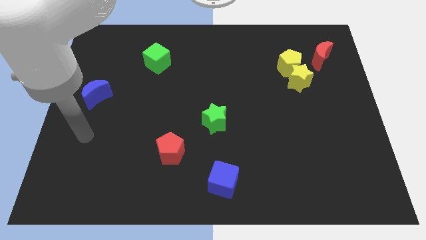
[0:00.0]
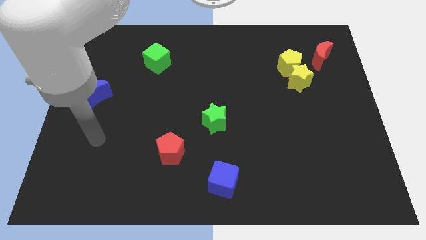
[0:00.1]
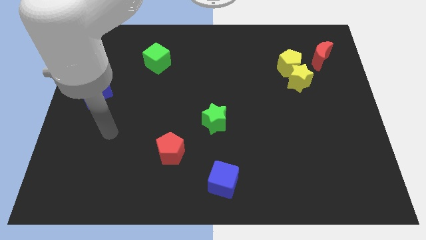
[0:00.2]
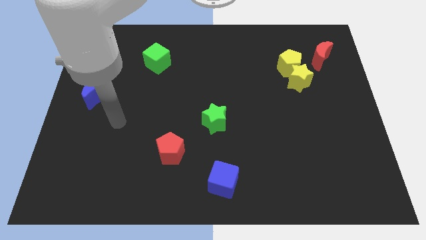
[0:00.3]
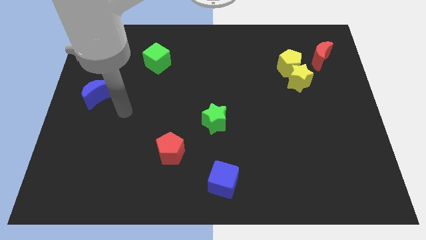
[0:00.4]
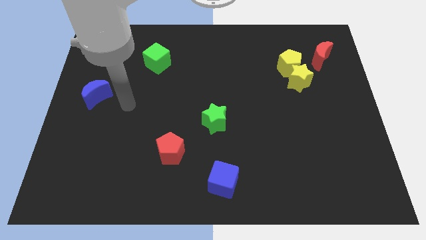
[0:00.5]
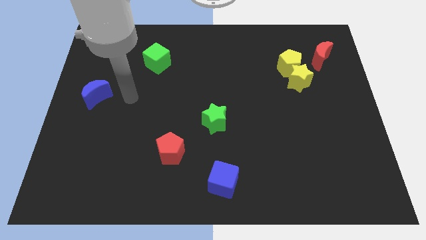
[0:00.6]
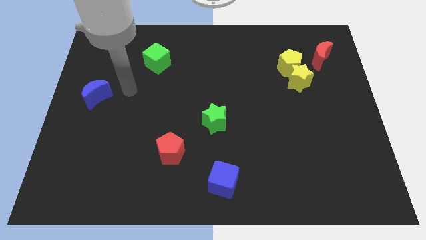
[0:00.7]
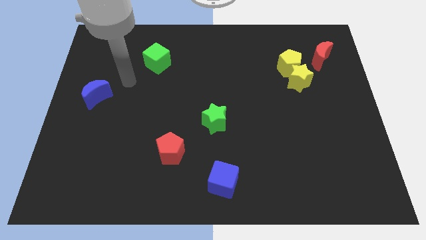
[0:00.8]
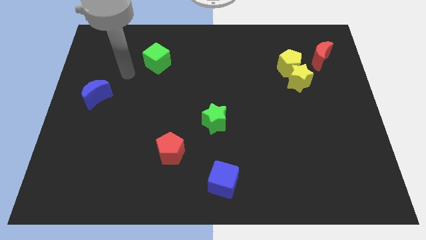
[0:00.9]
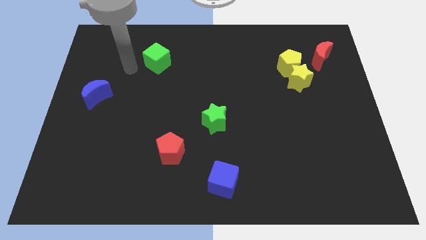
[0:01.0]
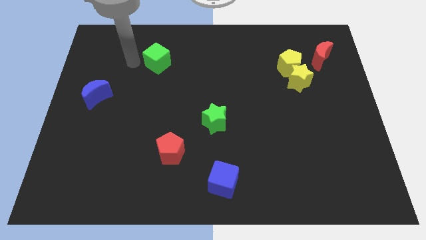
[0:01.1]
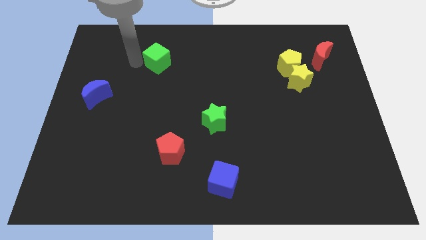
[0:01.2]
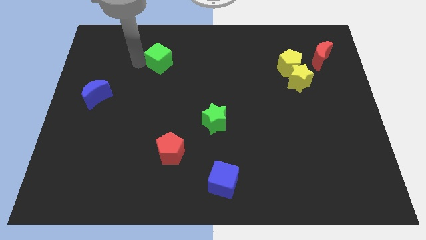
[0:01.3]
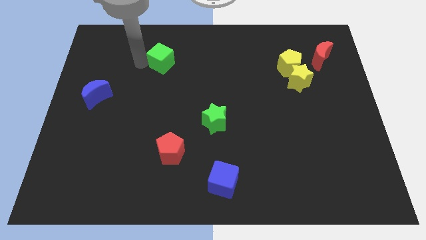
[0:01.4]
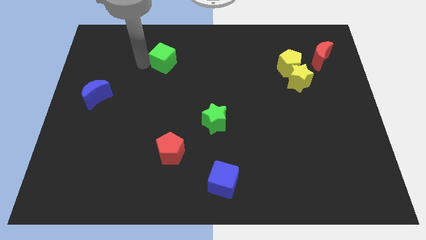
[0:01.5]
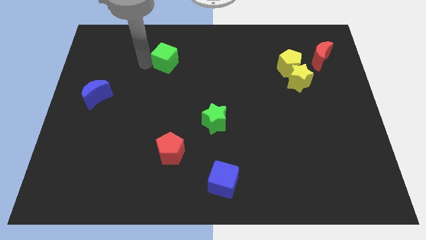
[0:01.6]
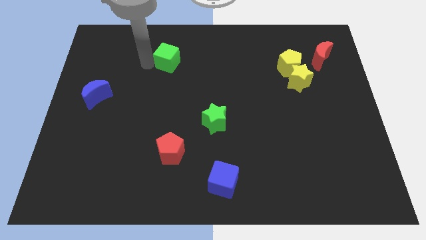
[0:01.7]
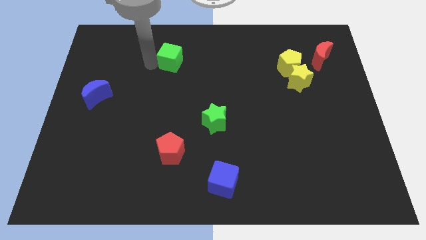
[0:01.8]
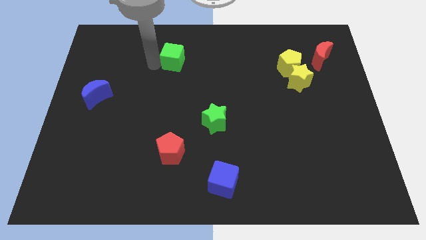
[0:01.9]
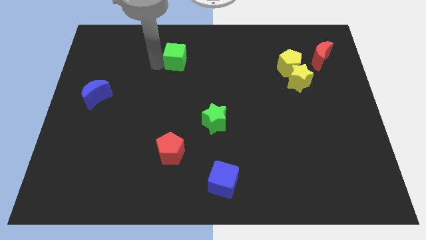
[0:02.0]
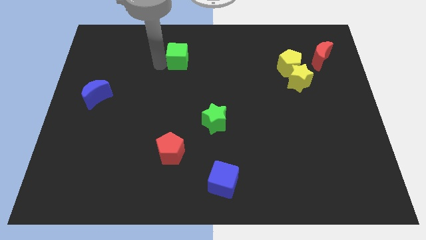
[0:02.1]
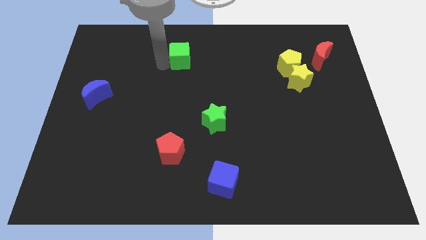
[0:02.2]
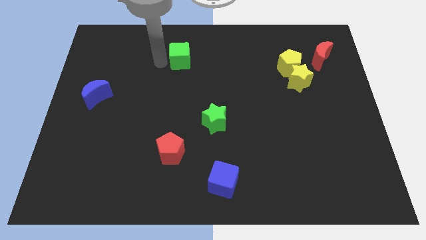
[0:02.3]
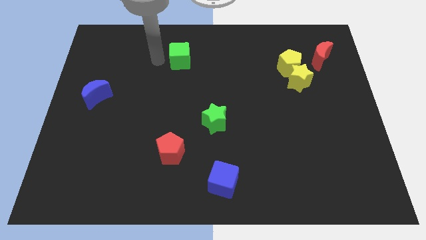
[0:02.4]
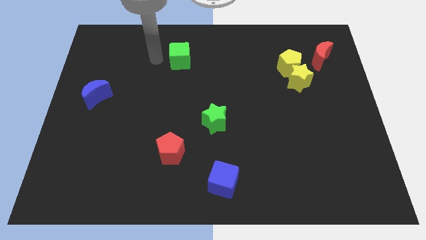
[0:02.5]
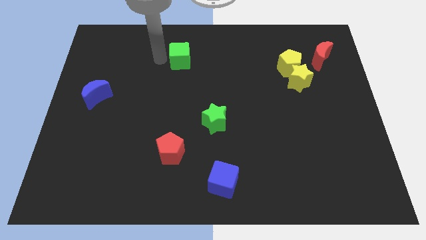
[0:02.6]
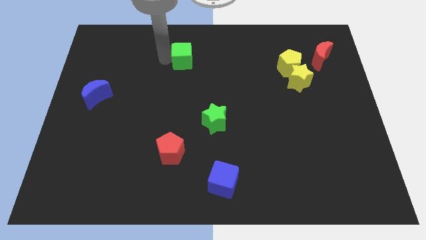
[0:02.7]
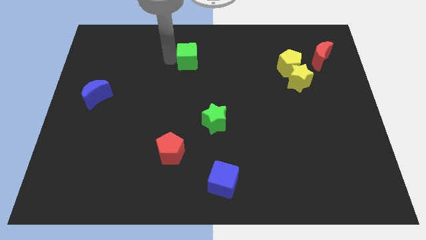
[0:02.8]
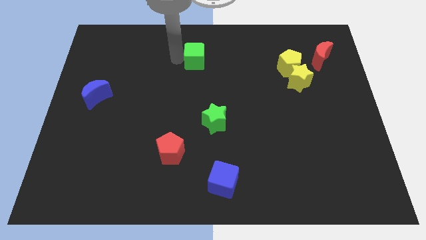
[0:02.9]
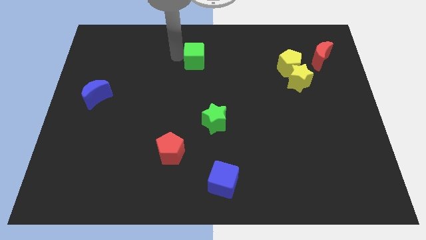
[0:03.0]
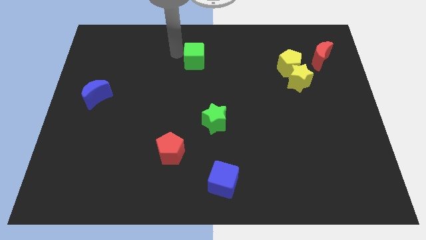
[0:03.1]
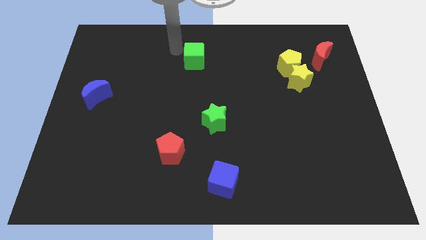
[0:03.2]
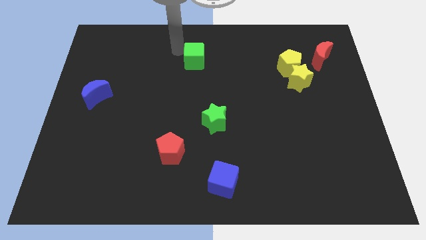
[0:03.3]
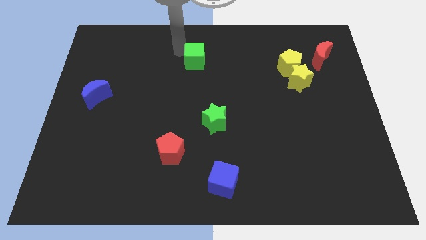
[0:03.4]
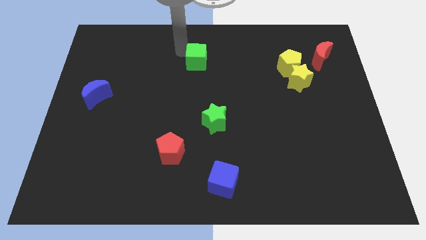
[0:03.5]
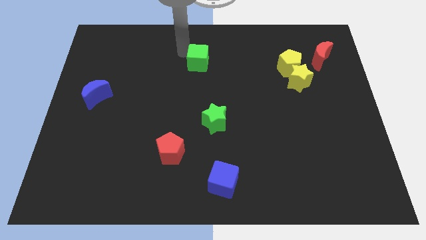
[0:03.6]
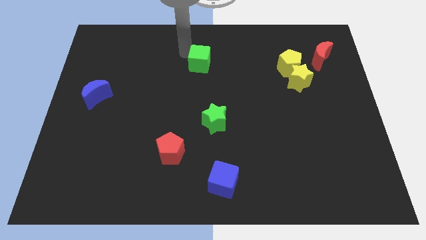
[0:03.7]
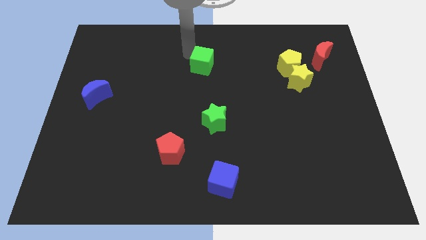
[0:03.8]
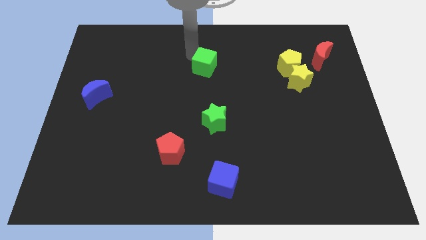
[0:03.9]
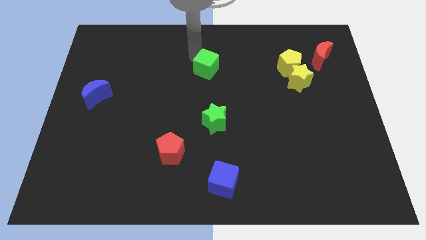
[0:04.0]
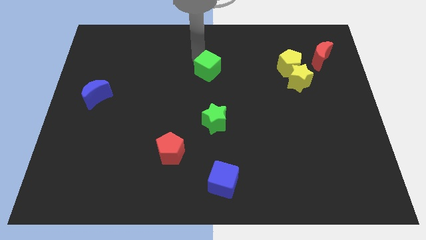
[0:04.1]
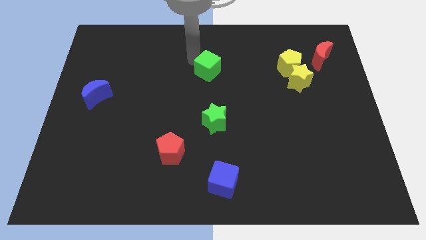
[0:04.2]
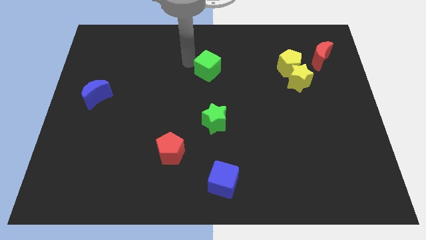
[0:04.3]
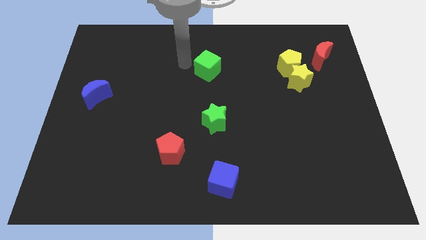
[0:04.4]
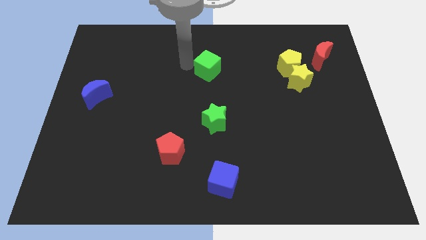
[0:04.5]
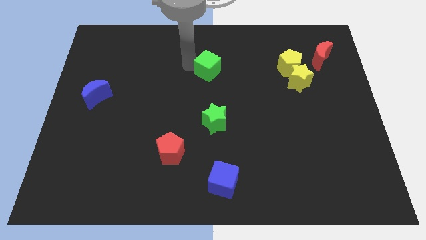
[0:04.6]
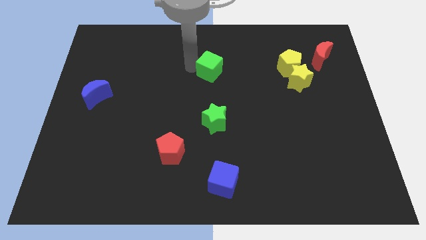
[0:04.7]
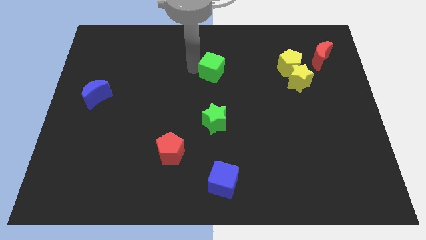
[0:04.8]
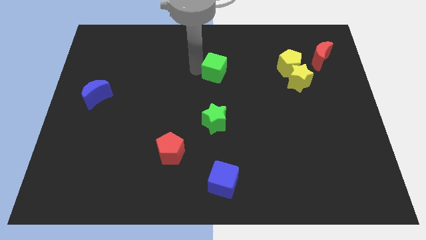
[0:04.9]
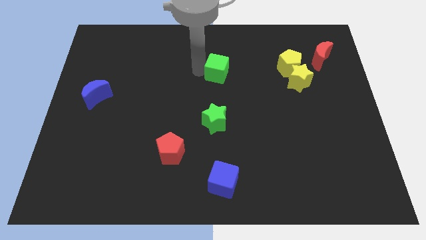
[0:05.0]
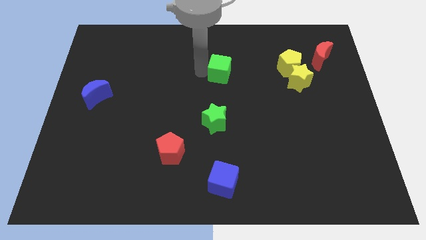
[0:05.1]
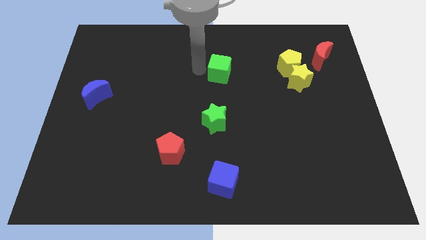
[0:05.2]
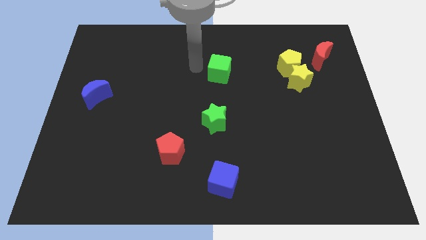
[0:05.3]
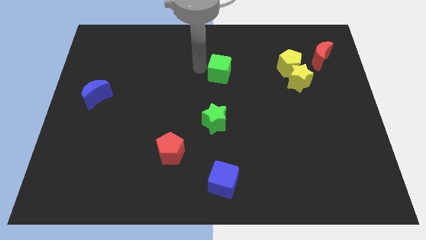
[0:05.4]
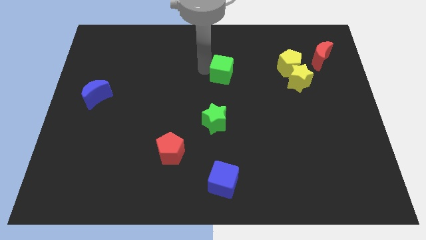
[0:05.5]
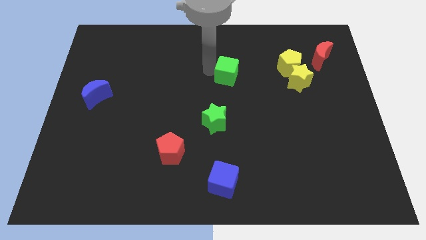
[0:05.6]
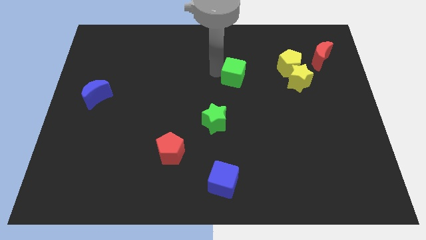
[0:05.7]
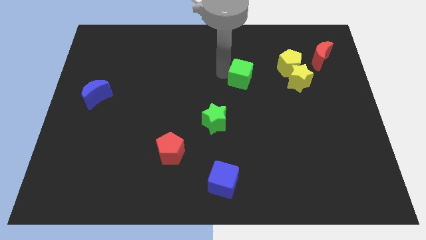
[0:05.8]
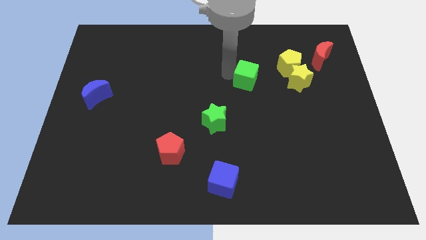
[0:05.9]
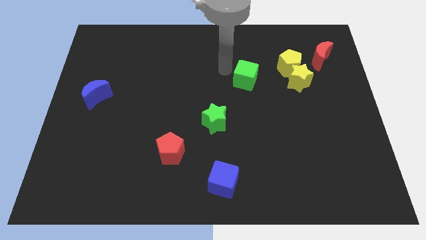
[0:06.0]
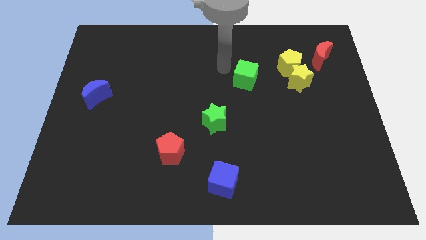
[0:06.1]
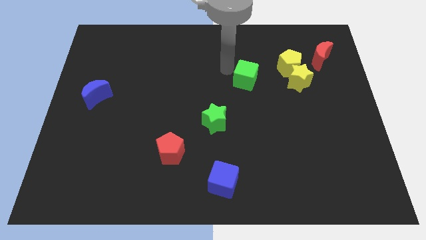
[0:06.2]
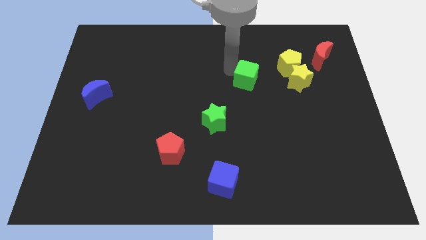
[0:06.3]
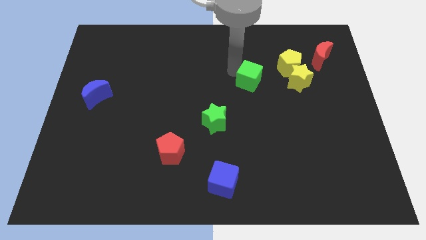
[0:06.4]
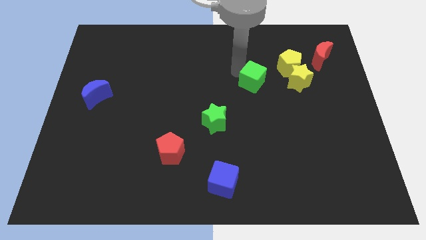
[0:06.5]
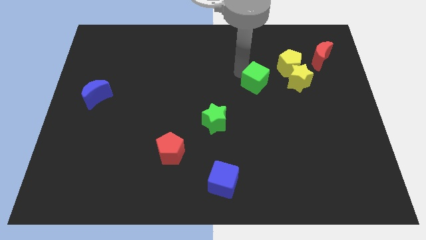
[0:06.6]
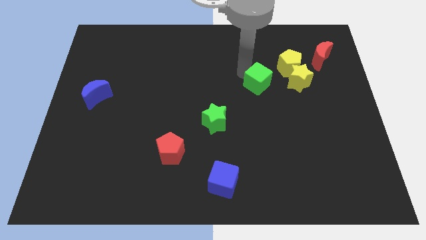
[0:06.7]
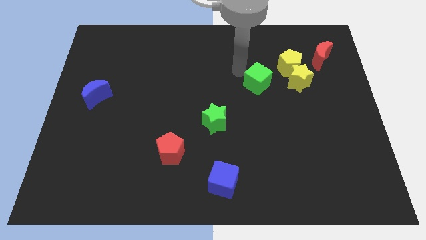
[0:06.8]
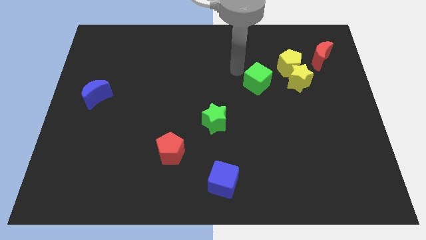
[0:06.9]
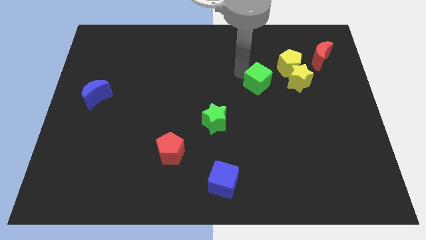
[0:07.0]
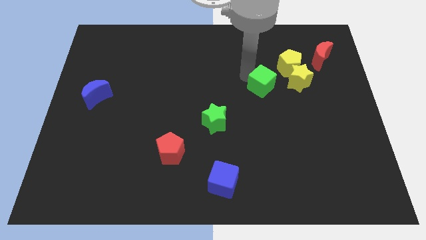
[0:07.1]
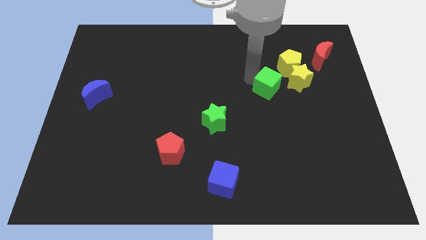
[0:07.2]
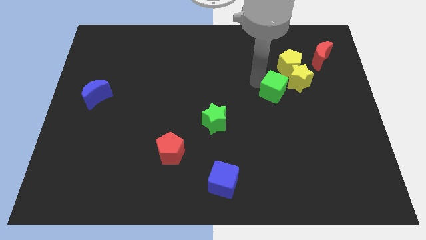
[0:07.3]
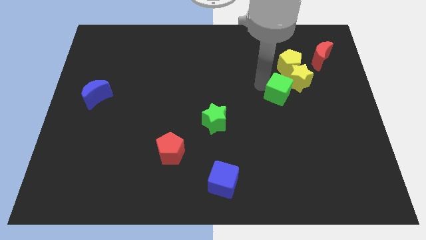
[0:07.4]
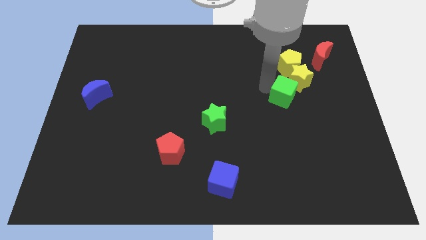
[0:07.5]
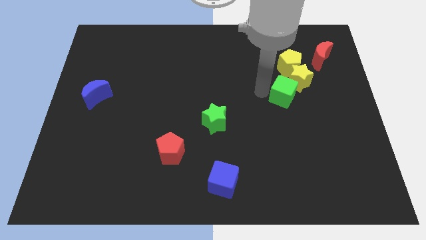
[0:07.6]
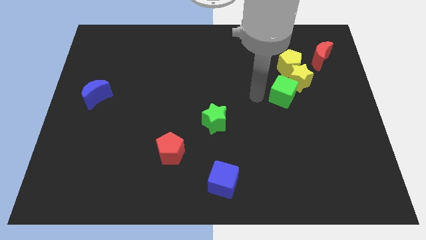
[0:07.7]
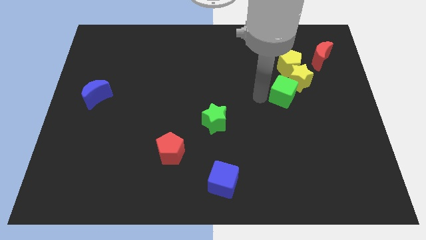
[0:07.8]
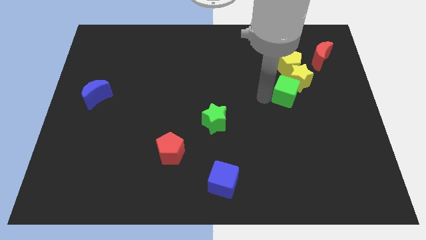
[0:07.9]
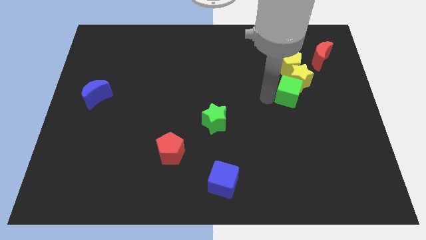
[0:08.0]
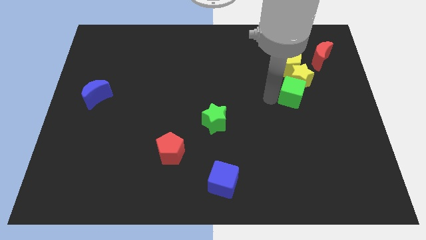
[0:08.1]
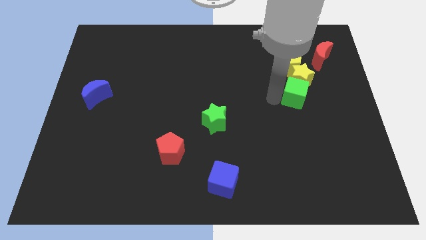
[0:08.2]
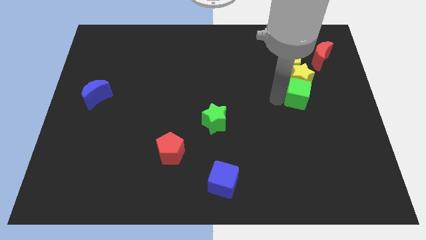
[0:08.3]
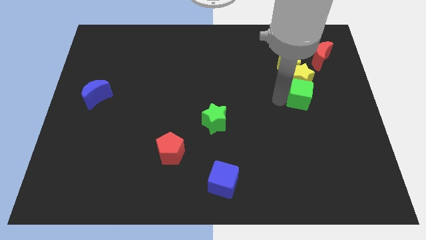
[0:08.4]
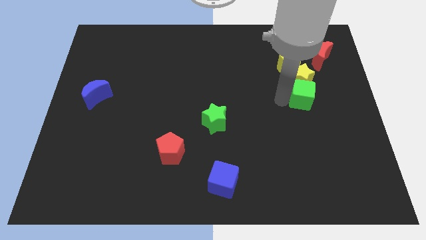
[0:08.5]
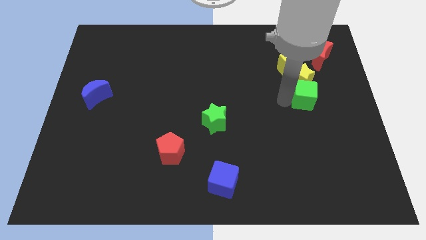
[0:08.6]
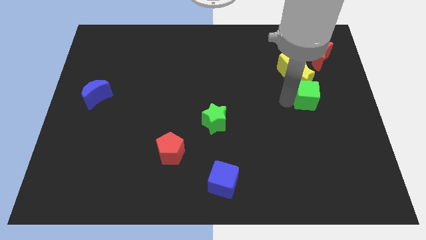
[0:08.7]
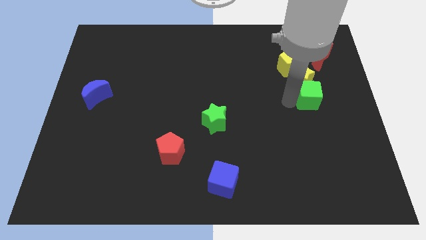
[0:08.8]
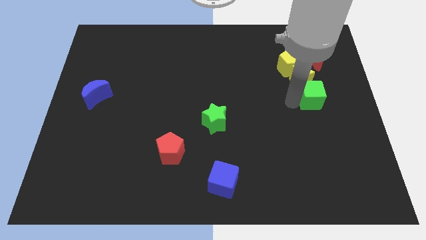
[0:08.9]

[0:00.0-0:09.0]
push the green cube to the bottom right side of the yellow pentagon
